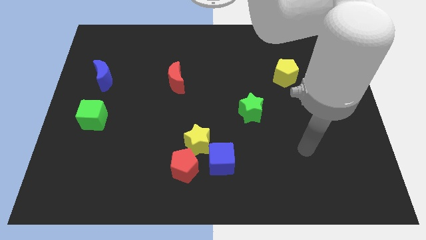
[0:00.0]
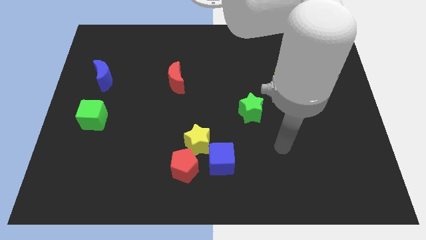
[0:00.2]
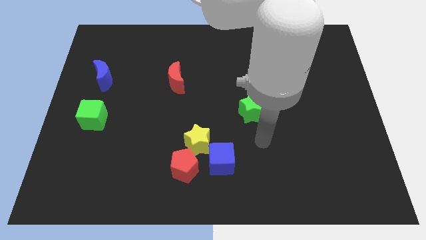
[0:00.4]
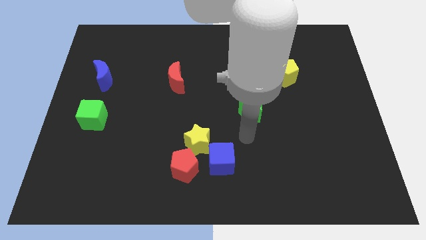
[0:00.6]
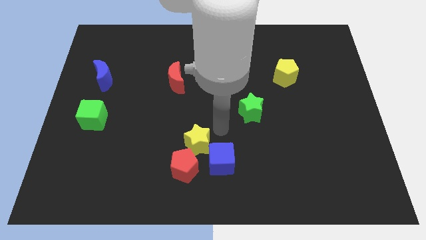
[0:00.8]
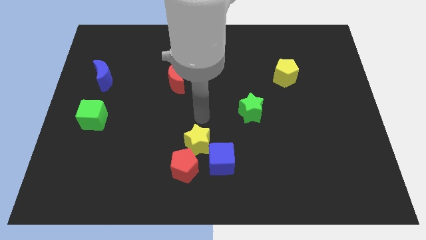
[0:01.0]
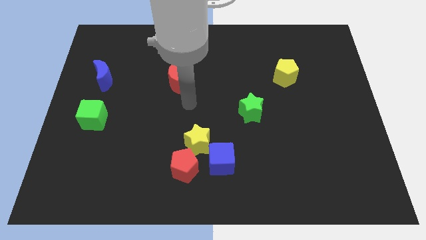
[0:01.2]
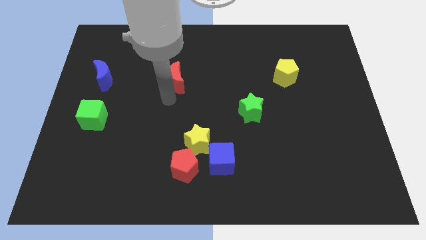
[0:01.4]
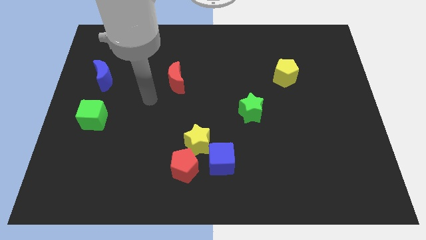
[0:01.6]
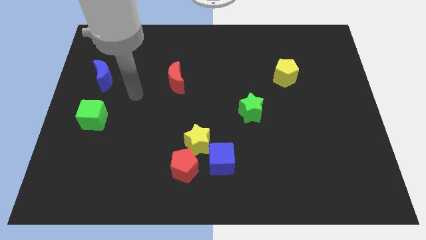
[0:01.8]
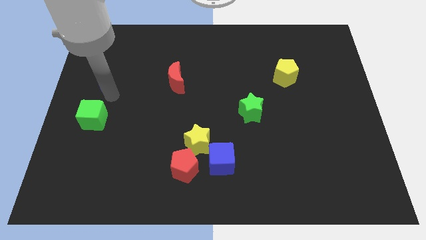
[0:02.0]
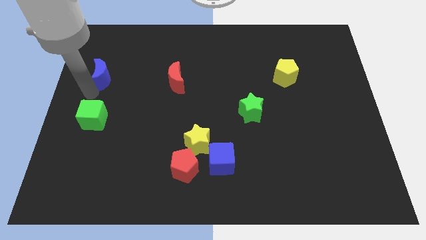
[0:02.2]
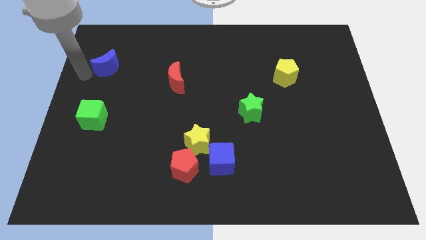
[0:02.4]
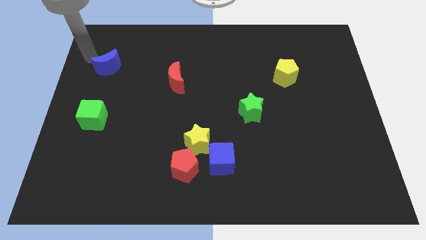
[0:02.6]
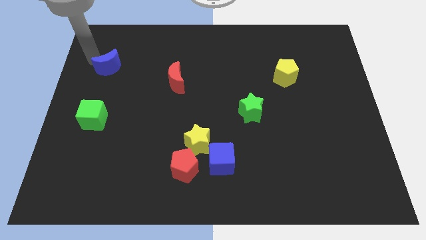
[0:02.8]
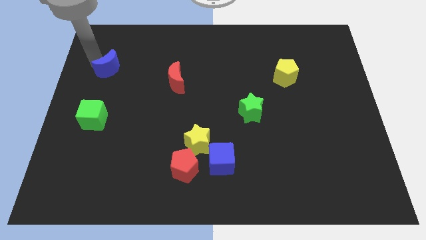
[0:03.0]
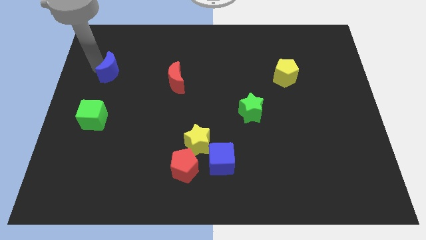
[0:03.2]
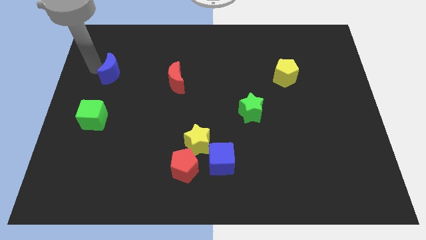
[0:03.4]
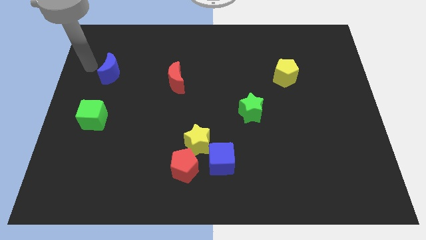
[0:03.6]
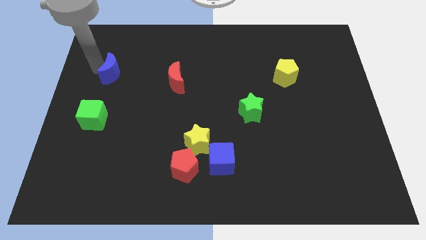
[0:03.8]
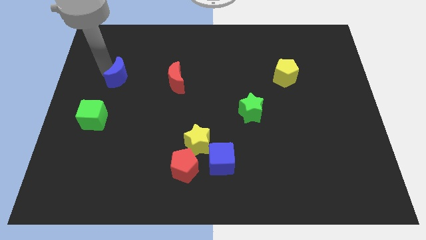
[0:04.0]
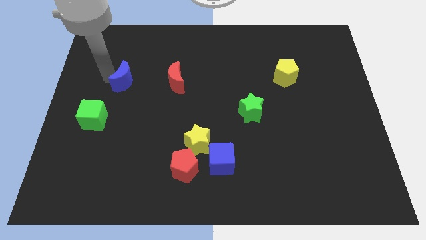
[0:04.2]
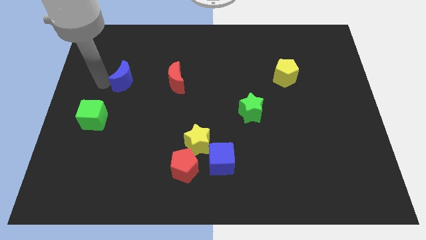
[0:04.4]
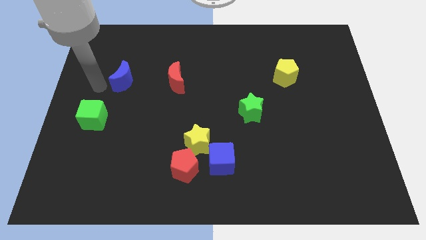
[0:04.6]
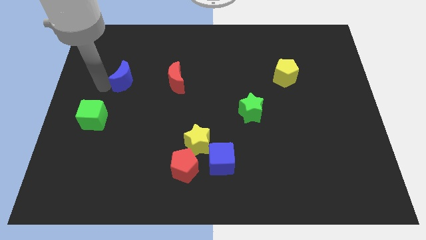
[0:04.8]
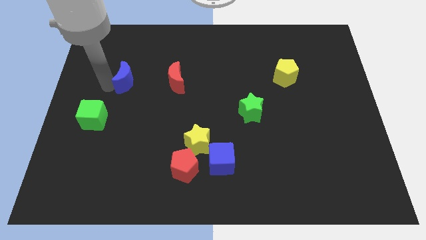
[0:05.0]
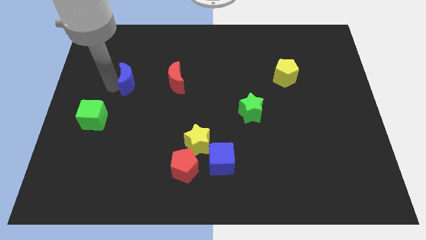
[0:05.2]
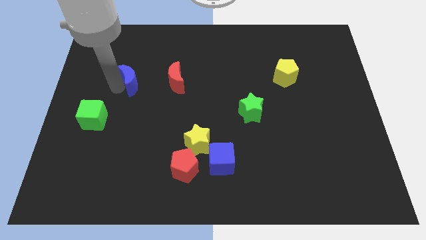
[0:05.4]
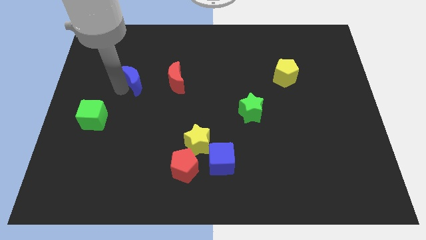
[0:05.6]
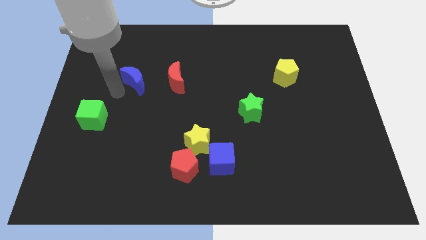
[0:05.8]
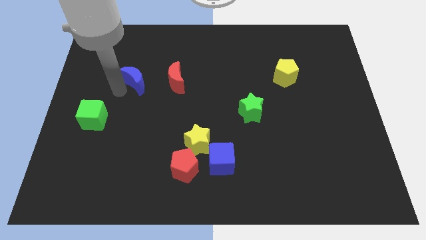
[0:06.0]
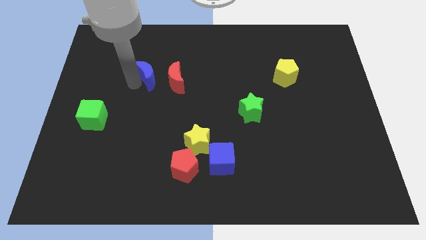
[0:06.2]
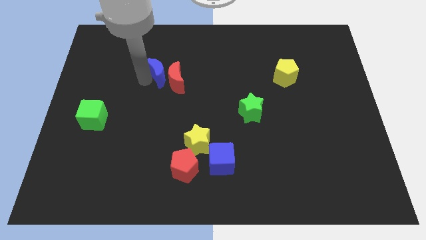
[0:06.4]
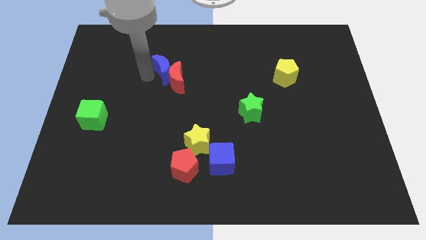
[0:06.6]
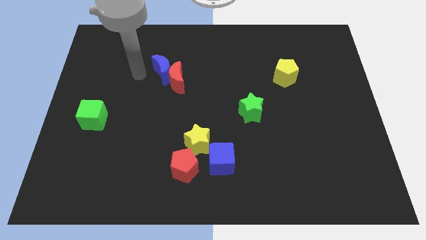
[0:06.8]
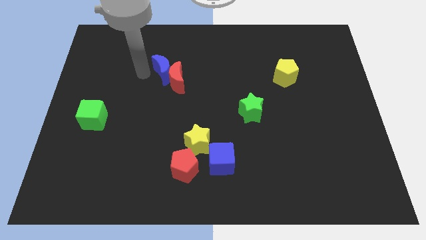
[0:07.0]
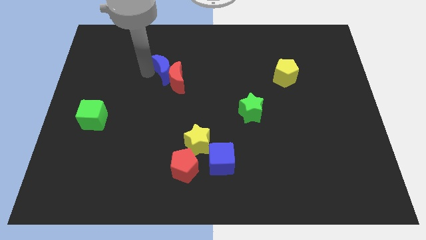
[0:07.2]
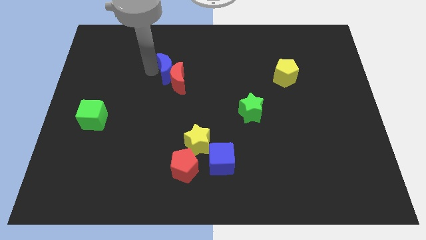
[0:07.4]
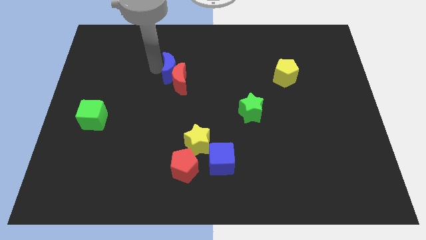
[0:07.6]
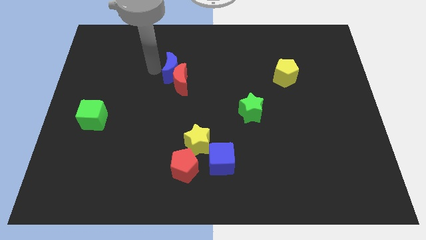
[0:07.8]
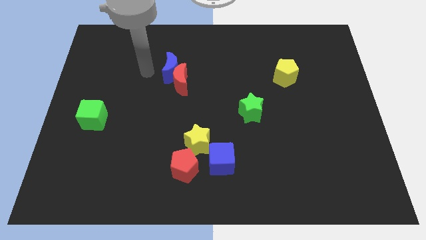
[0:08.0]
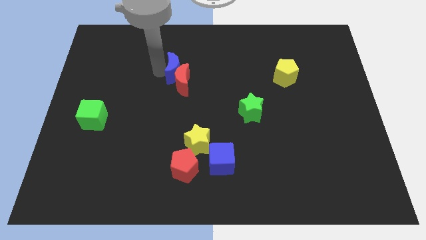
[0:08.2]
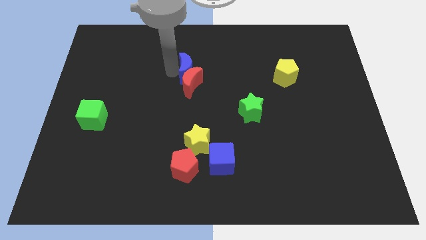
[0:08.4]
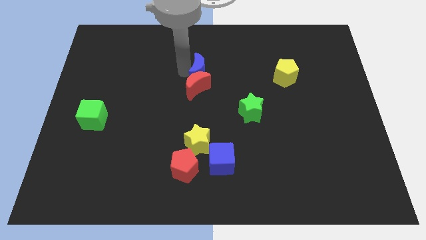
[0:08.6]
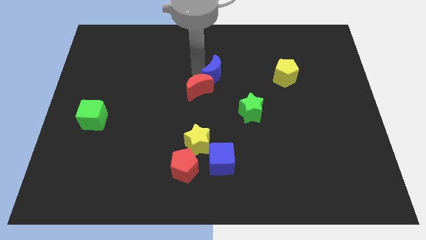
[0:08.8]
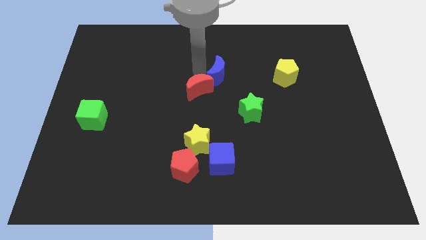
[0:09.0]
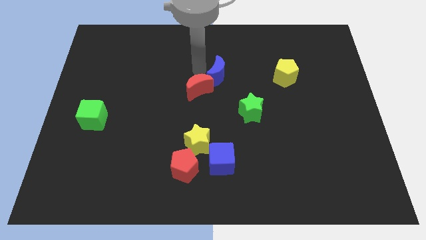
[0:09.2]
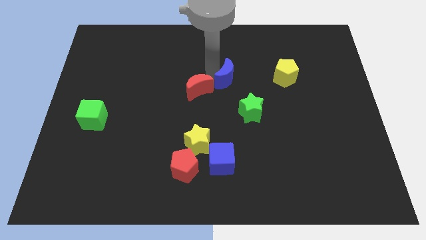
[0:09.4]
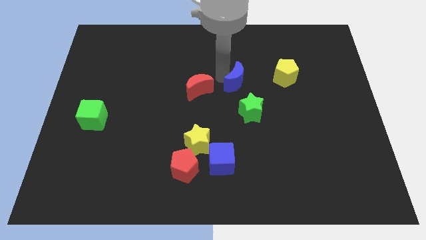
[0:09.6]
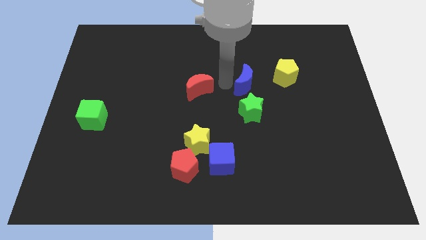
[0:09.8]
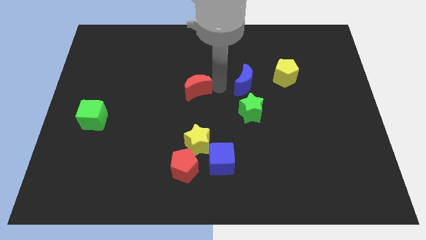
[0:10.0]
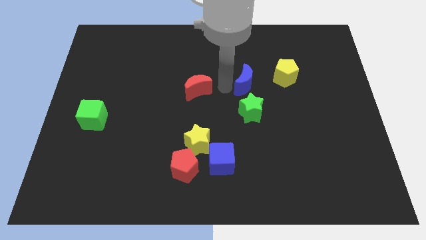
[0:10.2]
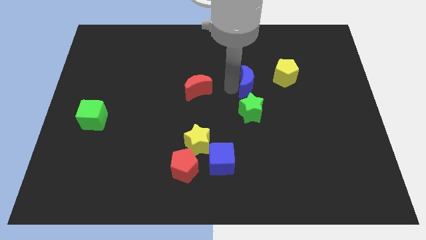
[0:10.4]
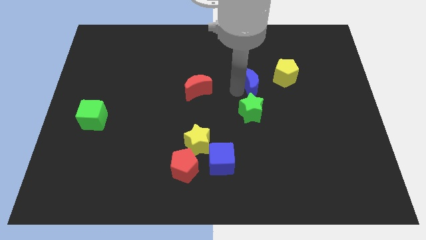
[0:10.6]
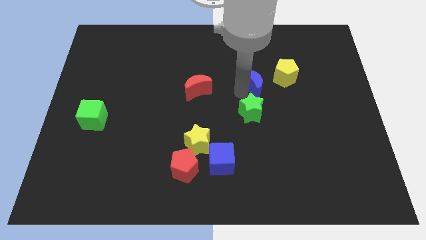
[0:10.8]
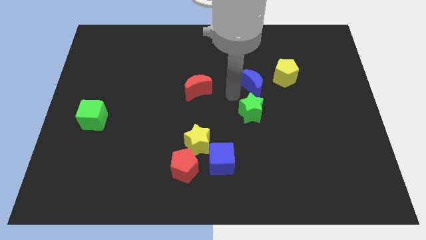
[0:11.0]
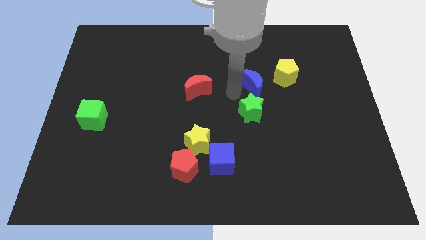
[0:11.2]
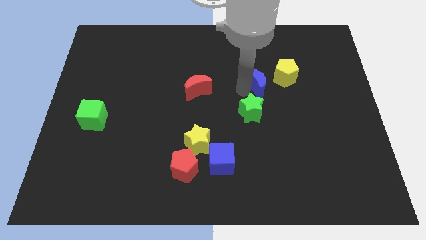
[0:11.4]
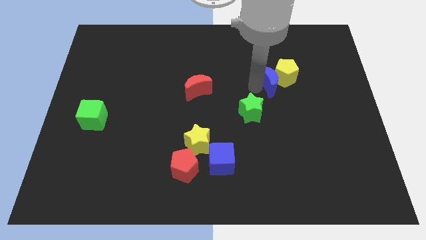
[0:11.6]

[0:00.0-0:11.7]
push the blue moon to the yellow pentagon

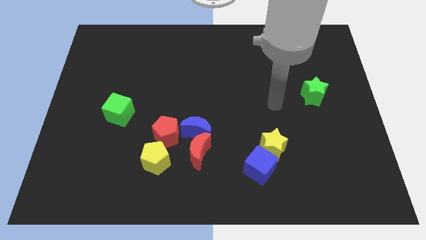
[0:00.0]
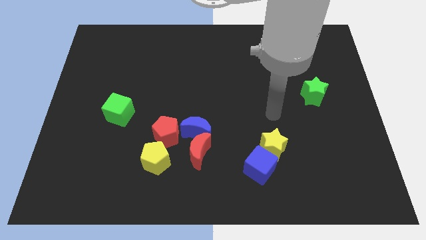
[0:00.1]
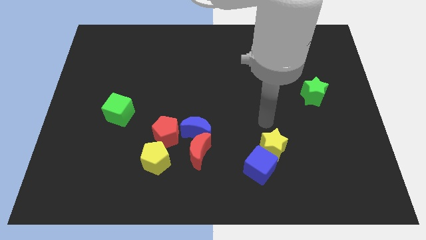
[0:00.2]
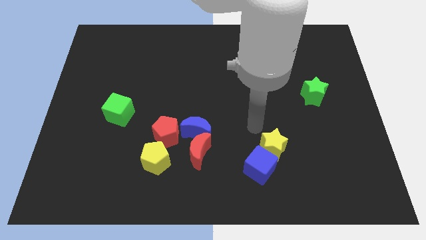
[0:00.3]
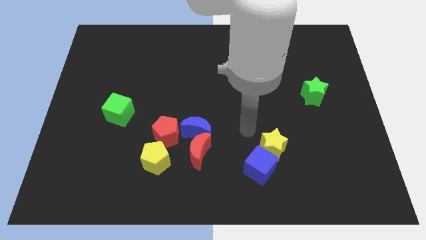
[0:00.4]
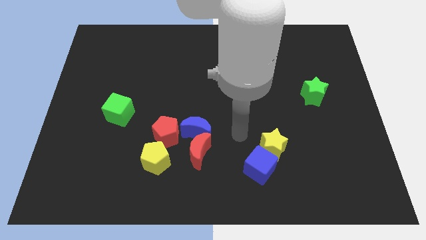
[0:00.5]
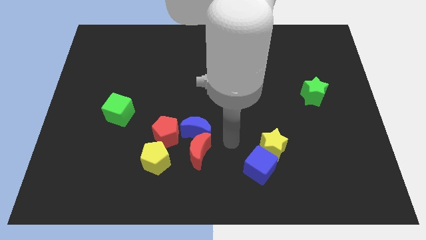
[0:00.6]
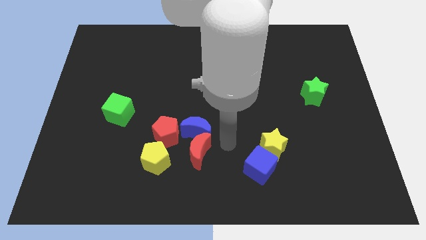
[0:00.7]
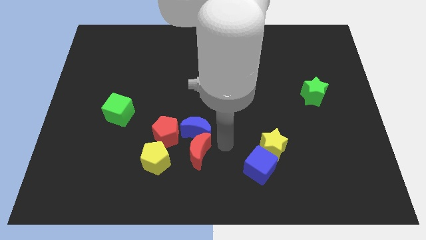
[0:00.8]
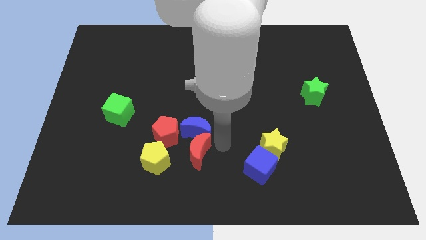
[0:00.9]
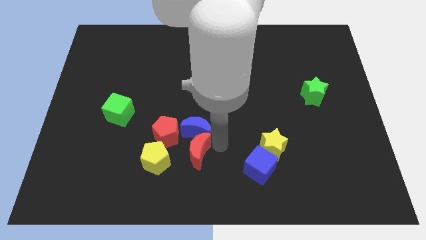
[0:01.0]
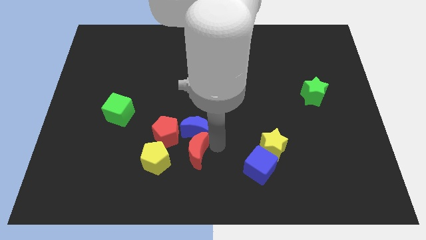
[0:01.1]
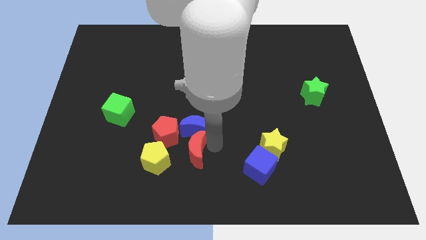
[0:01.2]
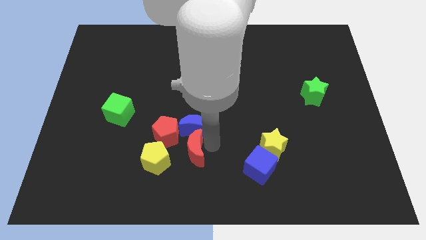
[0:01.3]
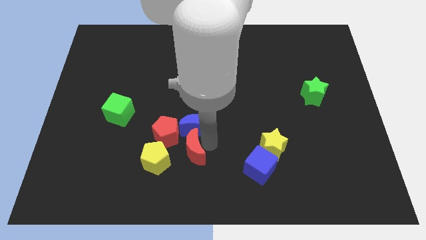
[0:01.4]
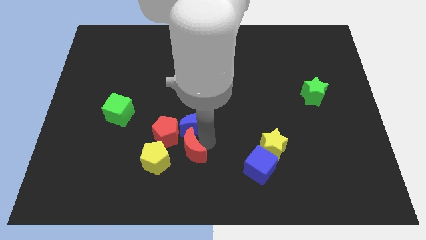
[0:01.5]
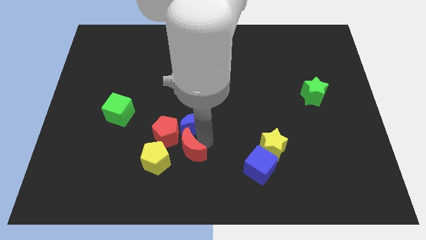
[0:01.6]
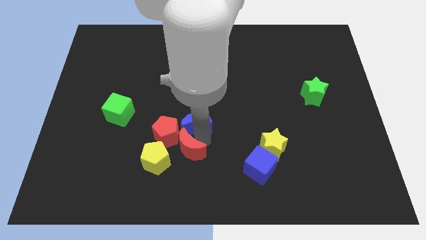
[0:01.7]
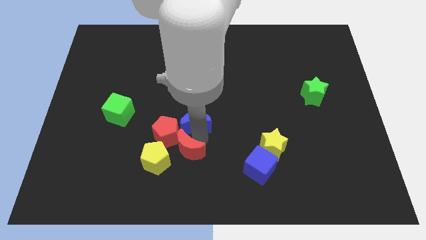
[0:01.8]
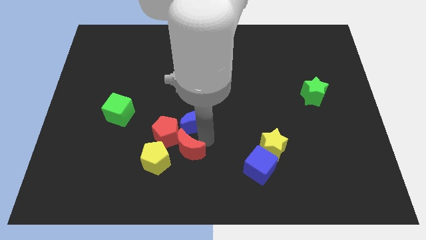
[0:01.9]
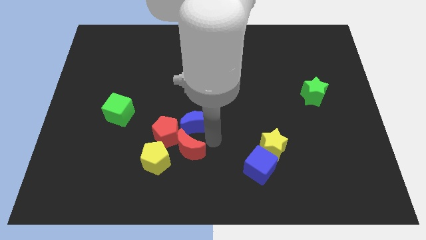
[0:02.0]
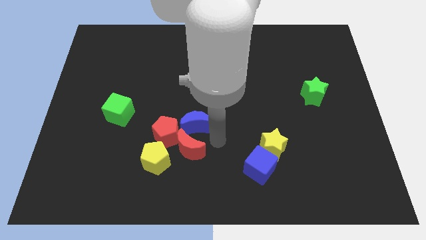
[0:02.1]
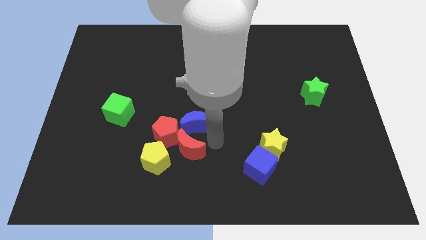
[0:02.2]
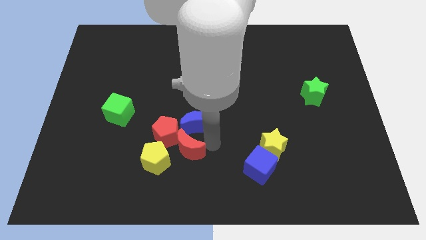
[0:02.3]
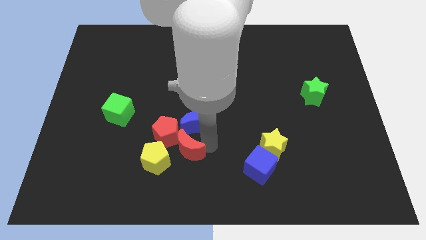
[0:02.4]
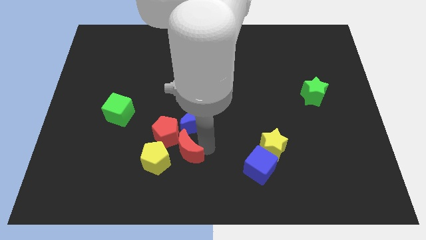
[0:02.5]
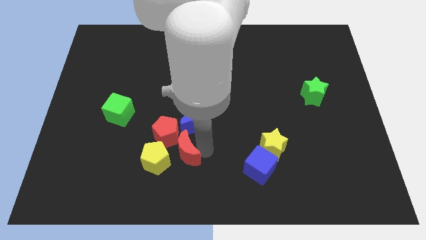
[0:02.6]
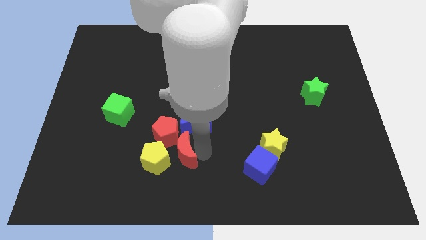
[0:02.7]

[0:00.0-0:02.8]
move the red moon towards the yellow pentagon
